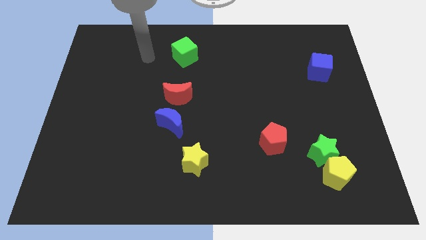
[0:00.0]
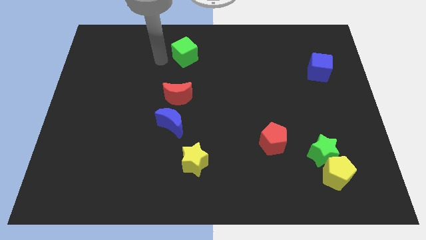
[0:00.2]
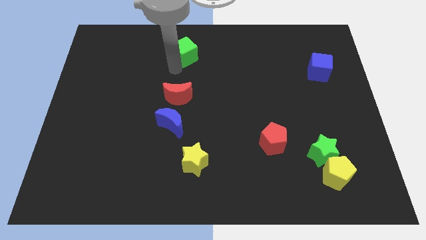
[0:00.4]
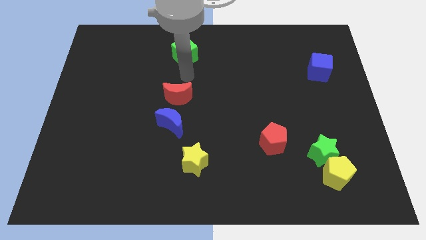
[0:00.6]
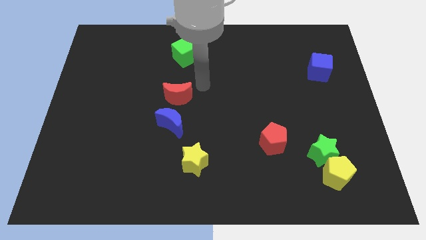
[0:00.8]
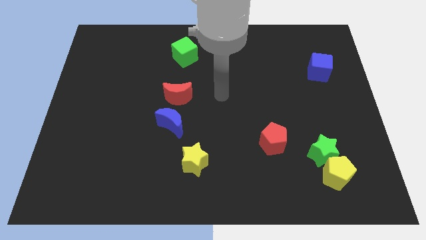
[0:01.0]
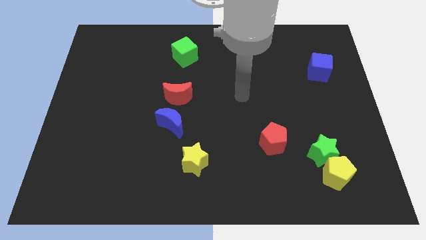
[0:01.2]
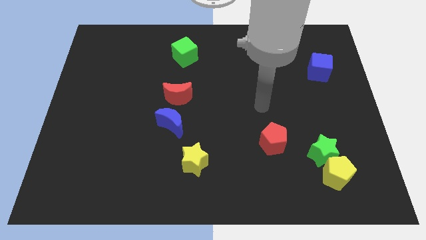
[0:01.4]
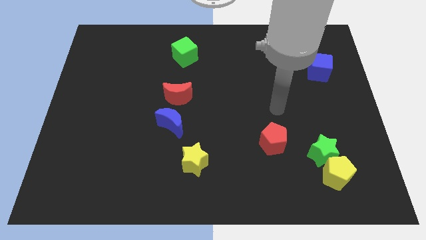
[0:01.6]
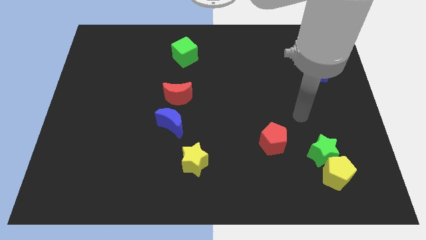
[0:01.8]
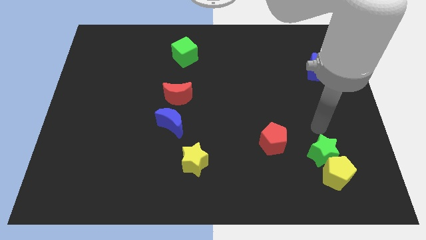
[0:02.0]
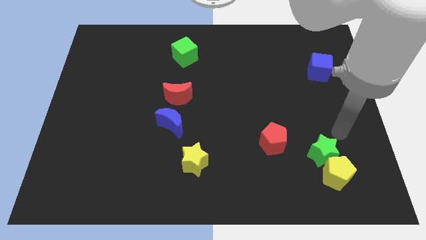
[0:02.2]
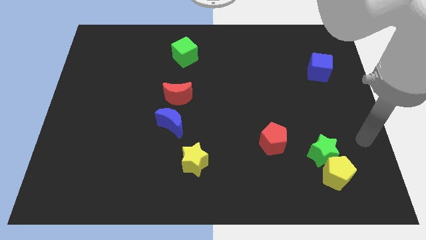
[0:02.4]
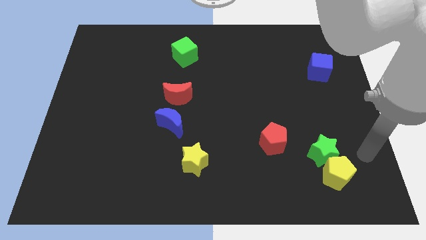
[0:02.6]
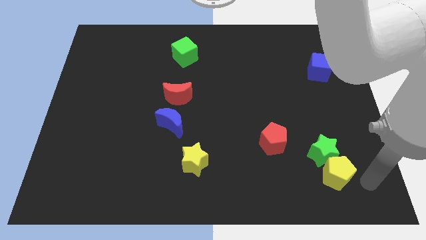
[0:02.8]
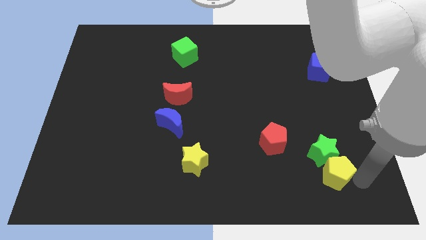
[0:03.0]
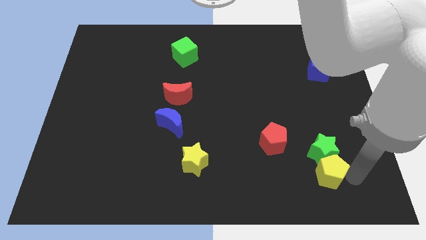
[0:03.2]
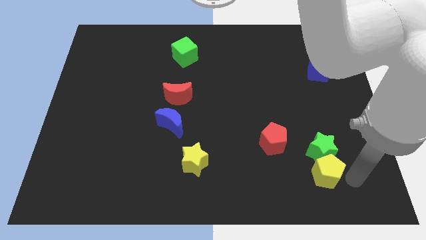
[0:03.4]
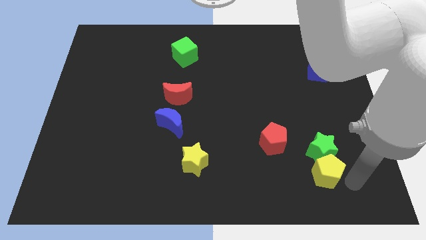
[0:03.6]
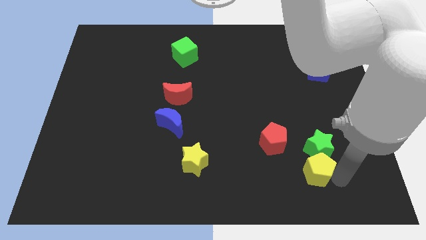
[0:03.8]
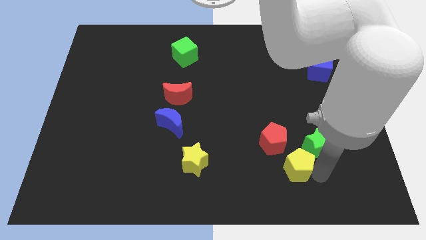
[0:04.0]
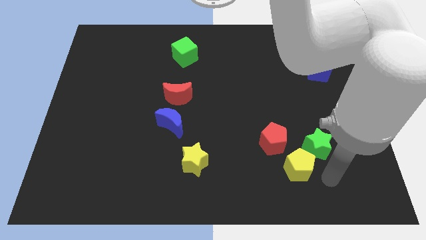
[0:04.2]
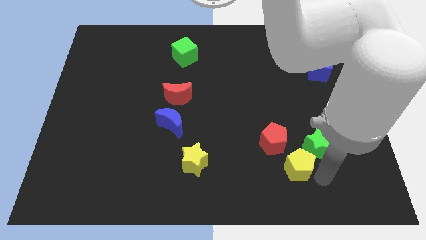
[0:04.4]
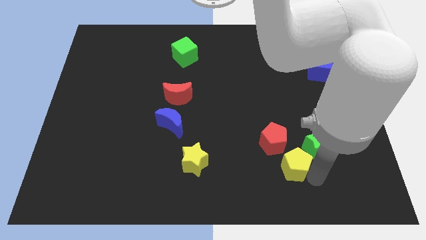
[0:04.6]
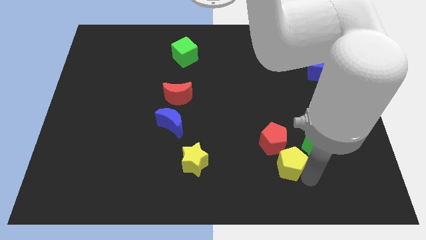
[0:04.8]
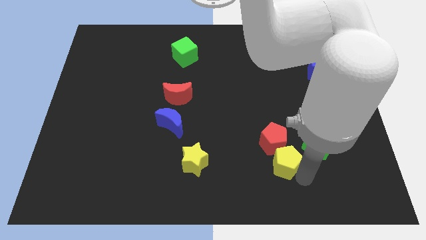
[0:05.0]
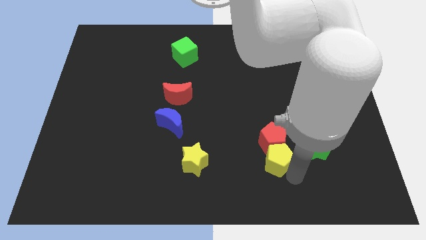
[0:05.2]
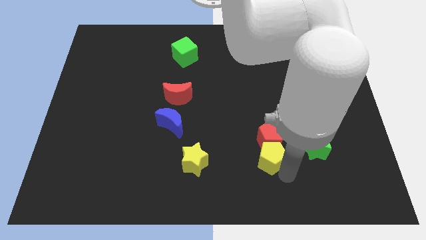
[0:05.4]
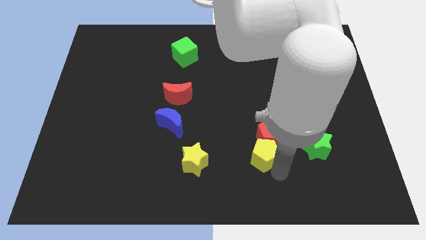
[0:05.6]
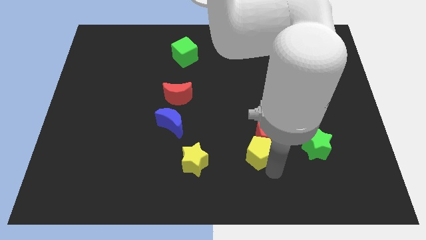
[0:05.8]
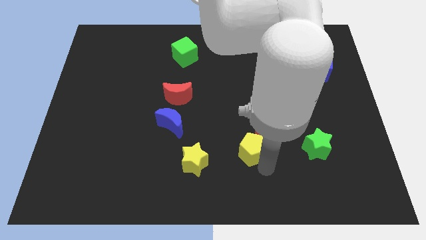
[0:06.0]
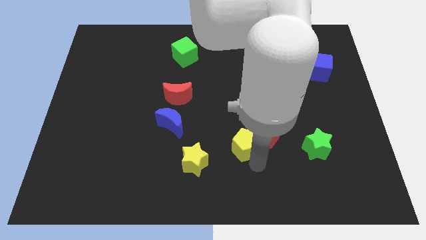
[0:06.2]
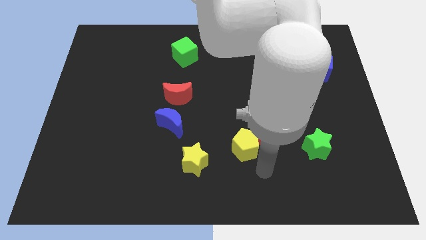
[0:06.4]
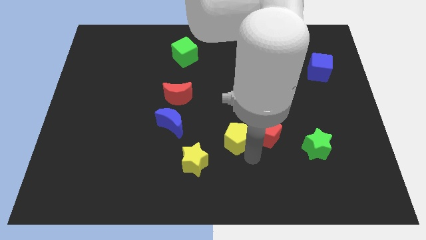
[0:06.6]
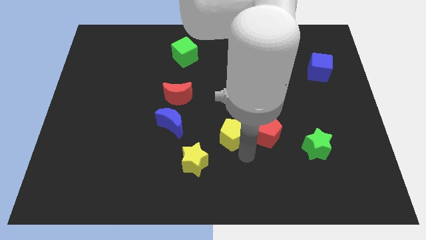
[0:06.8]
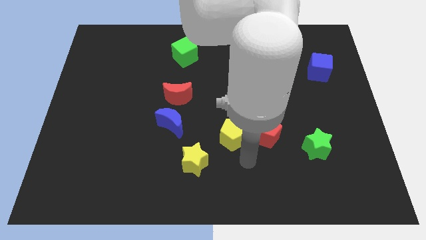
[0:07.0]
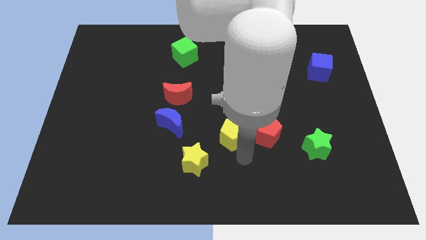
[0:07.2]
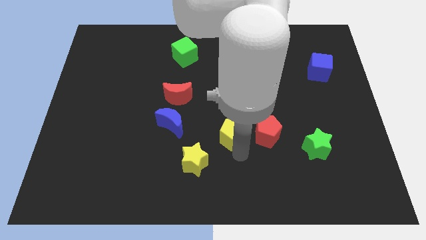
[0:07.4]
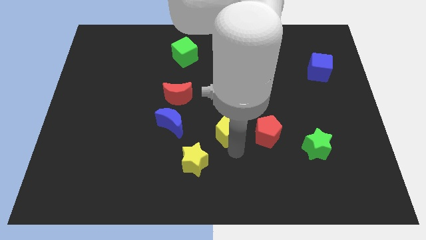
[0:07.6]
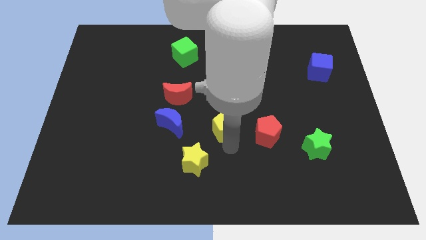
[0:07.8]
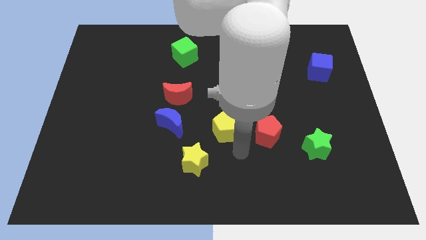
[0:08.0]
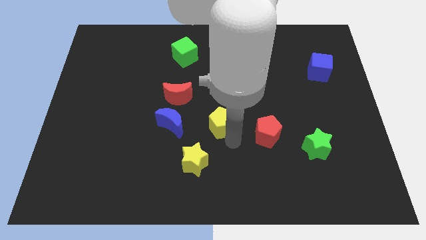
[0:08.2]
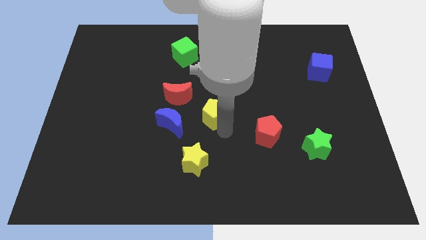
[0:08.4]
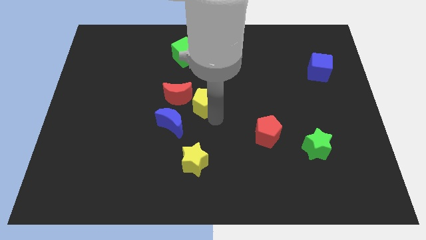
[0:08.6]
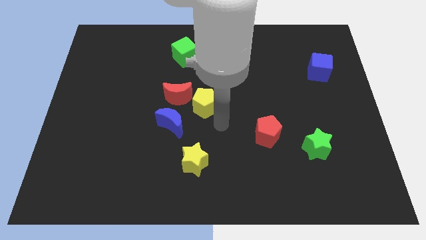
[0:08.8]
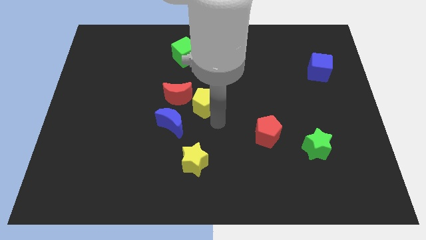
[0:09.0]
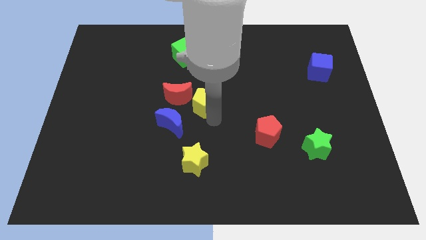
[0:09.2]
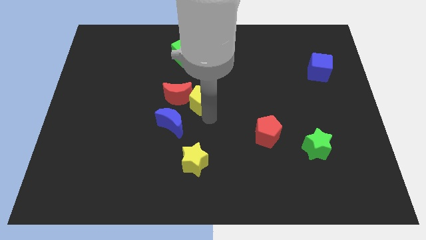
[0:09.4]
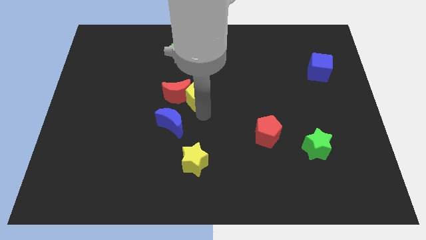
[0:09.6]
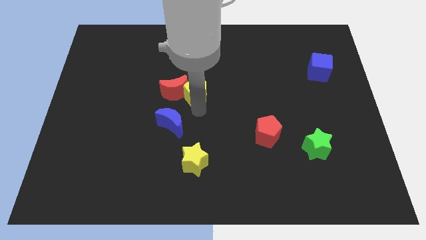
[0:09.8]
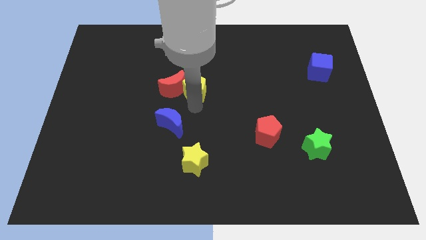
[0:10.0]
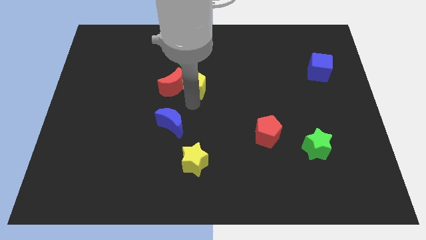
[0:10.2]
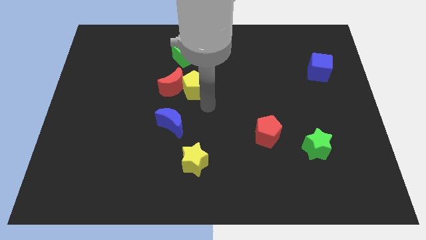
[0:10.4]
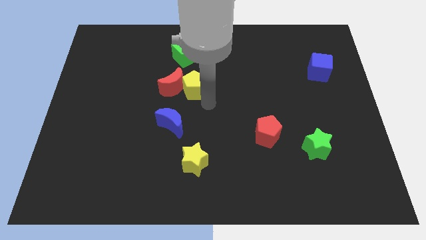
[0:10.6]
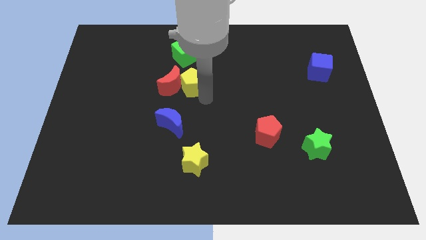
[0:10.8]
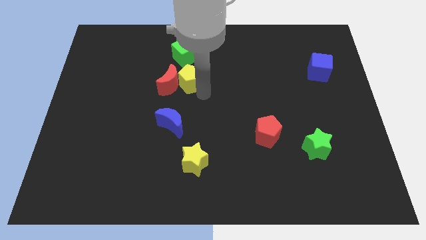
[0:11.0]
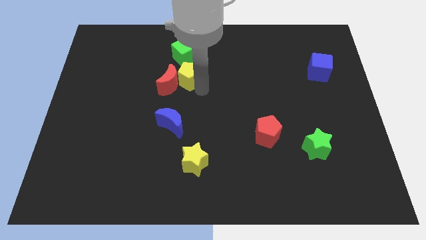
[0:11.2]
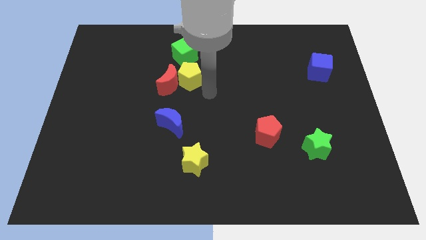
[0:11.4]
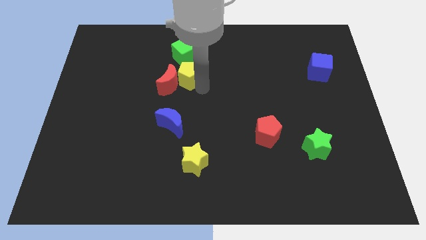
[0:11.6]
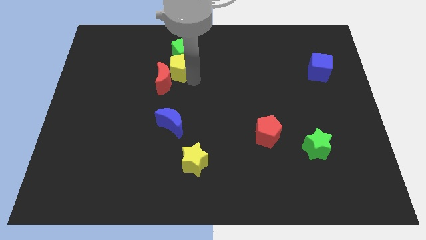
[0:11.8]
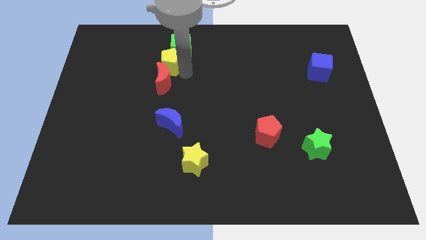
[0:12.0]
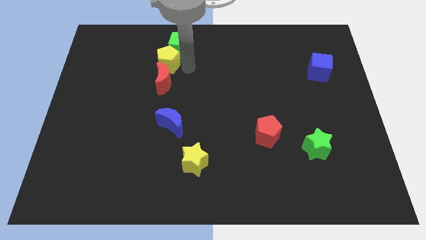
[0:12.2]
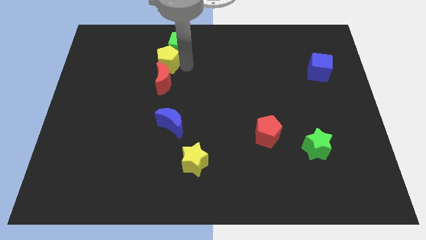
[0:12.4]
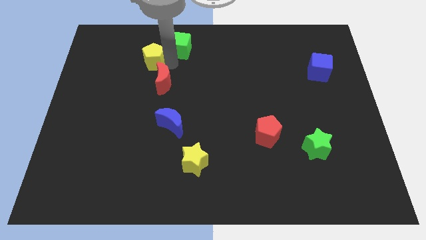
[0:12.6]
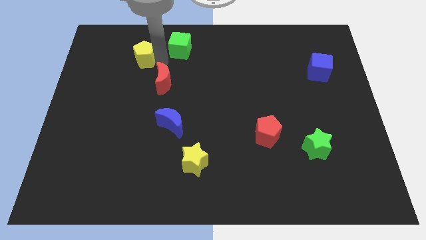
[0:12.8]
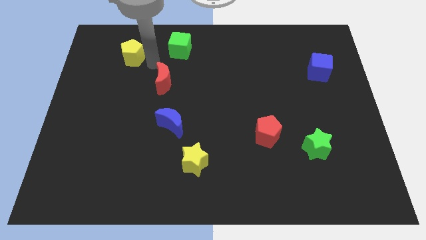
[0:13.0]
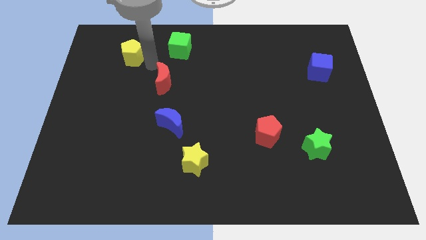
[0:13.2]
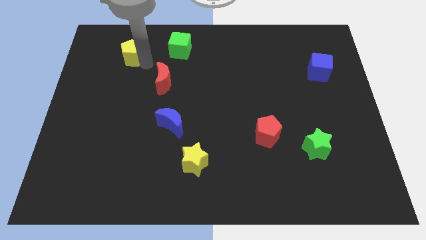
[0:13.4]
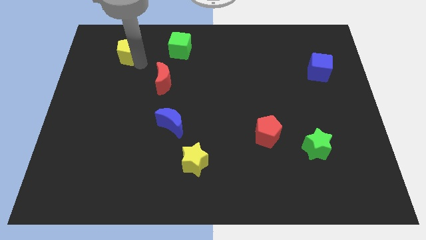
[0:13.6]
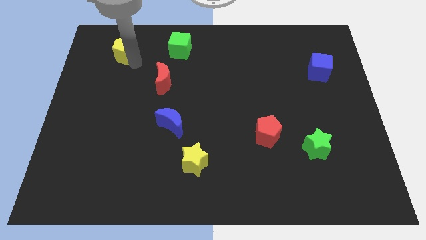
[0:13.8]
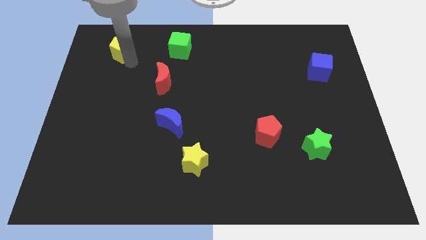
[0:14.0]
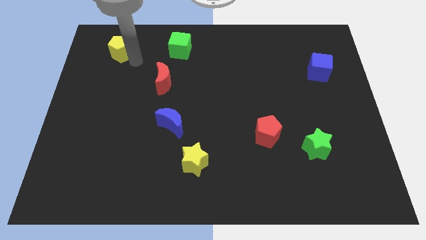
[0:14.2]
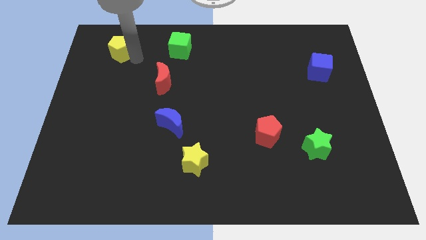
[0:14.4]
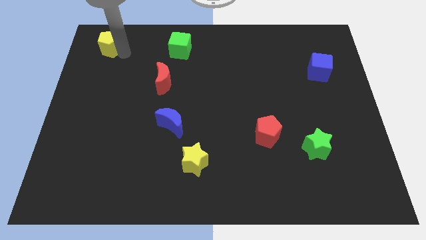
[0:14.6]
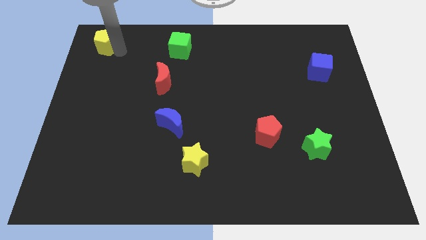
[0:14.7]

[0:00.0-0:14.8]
push the yellow pentagon to the top left corner
